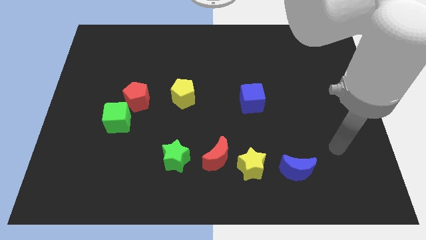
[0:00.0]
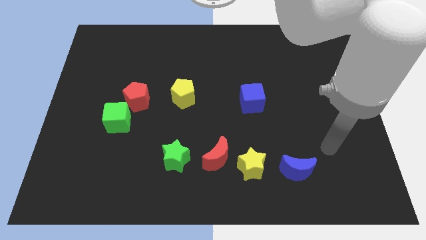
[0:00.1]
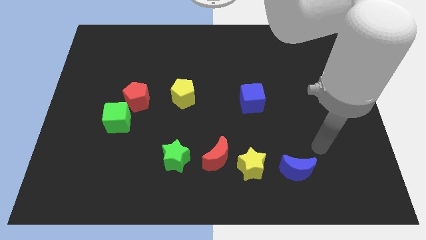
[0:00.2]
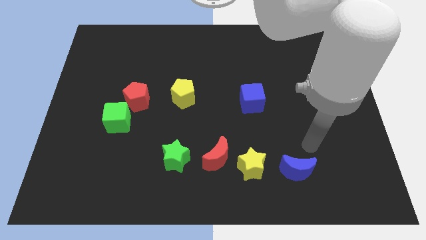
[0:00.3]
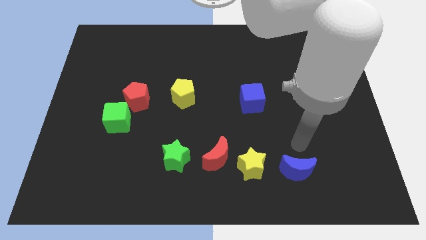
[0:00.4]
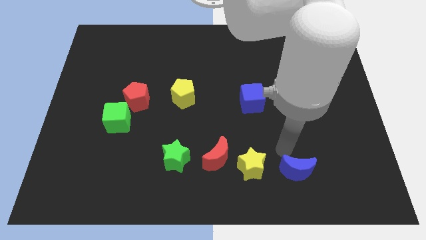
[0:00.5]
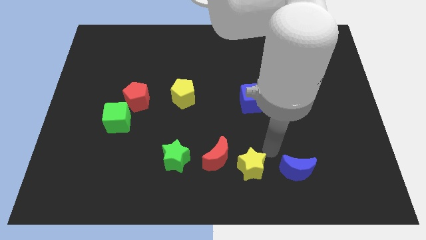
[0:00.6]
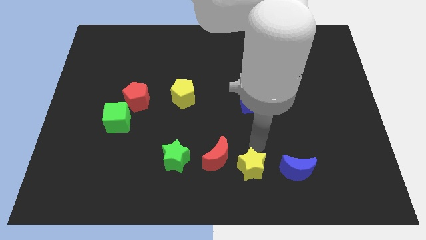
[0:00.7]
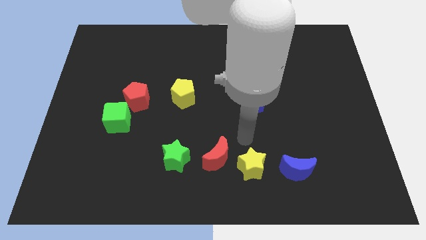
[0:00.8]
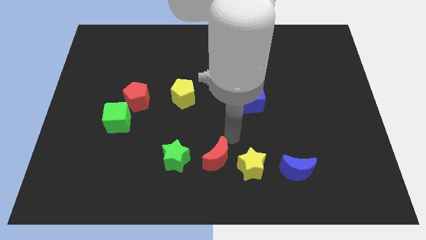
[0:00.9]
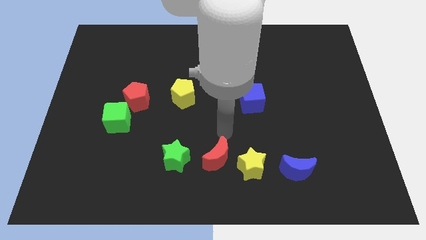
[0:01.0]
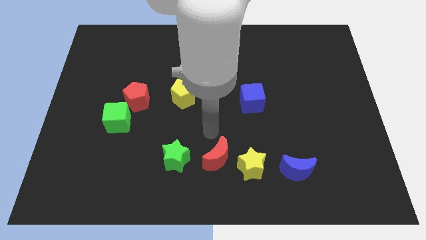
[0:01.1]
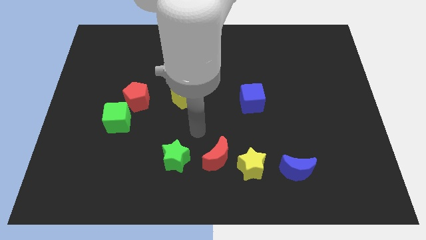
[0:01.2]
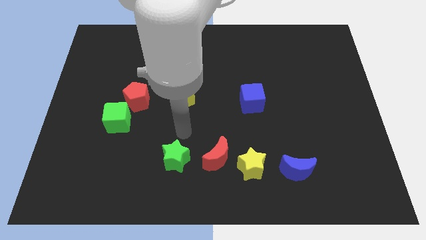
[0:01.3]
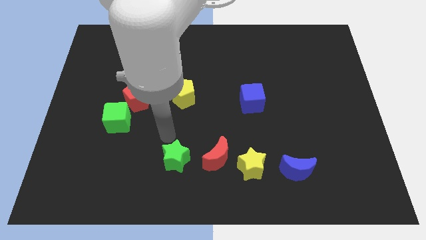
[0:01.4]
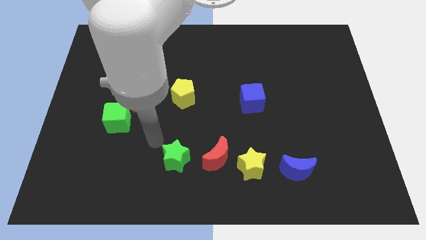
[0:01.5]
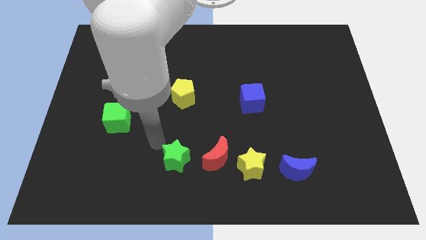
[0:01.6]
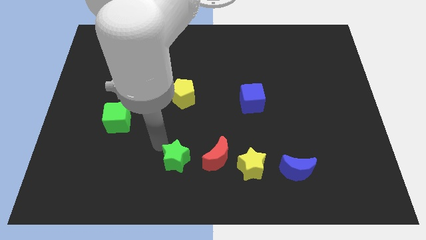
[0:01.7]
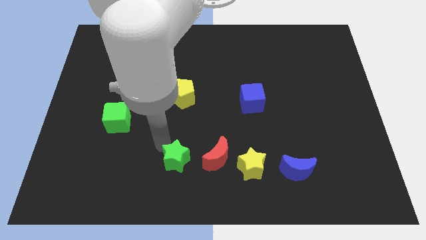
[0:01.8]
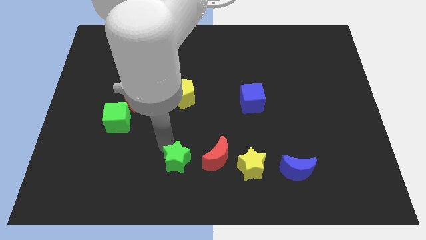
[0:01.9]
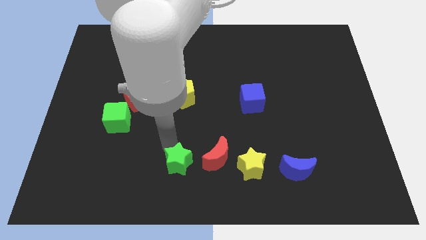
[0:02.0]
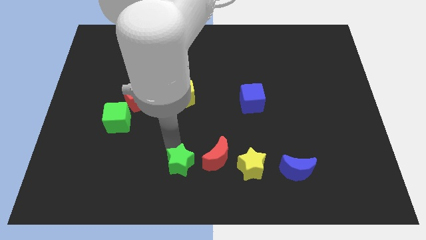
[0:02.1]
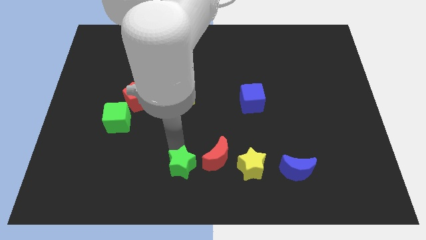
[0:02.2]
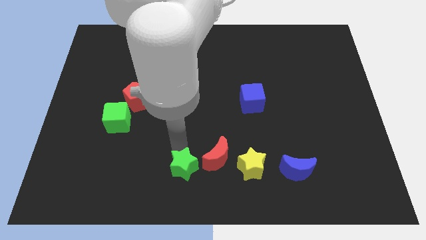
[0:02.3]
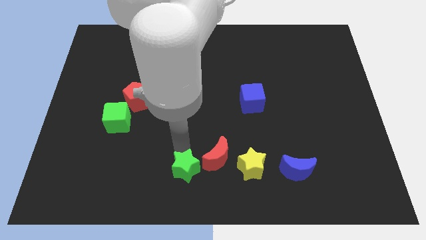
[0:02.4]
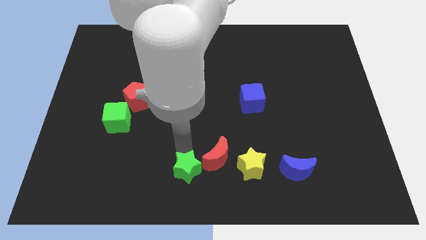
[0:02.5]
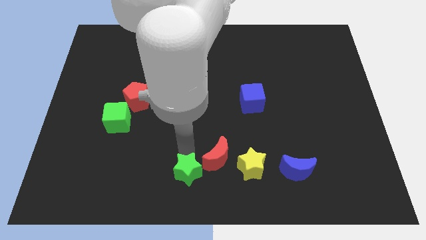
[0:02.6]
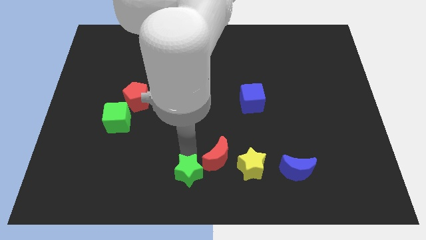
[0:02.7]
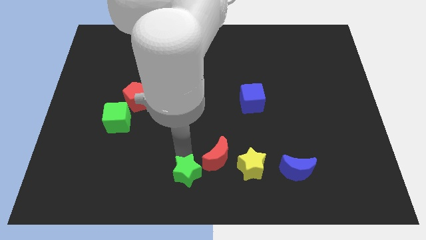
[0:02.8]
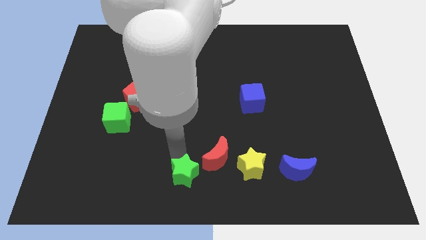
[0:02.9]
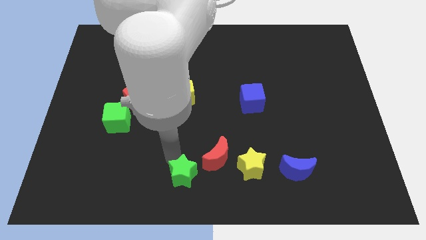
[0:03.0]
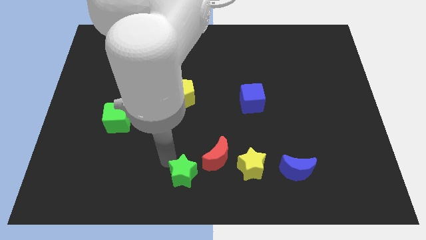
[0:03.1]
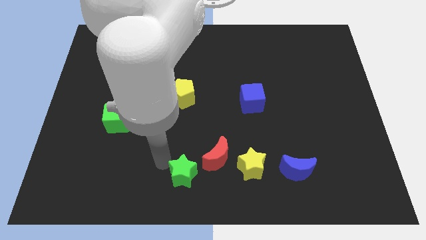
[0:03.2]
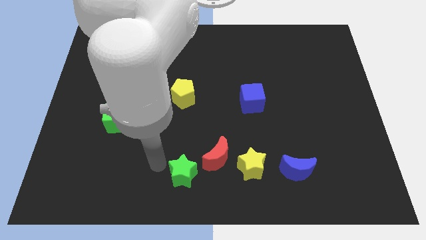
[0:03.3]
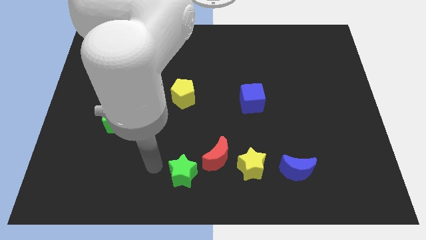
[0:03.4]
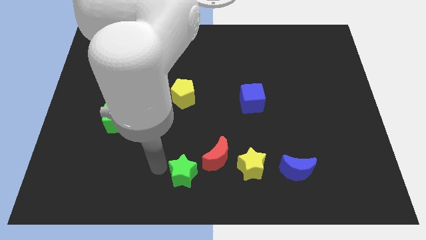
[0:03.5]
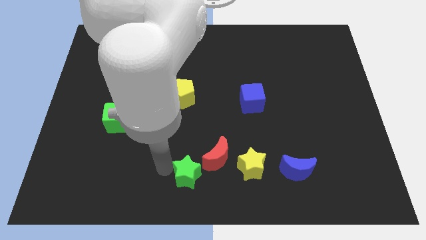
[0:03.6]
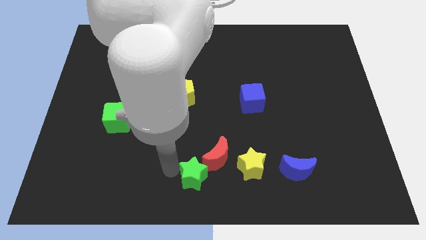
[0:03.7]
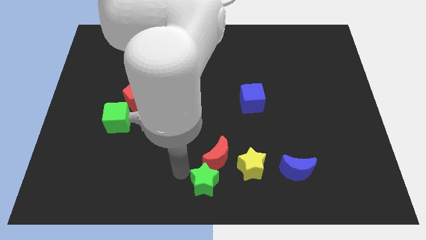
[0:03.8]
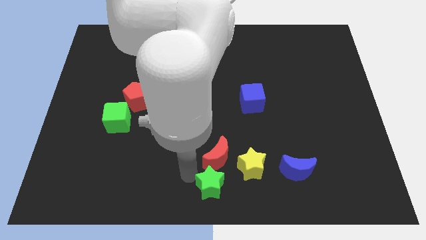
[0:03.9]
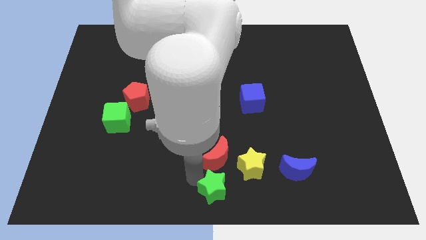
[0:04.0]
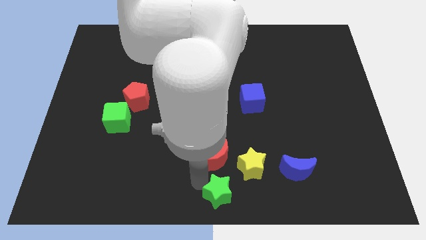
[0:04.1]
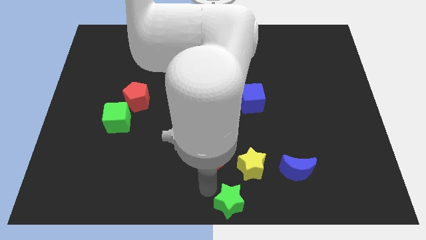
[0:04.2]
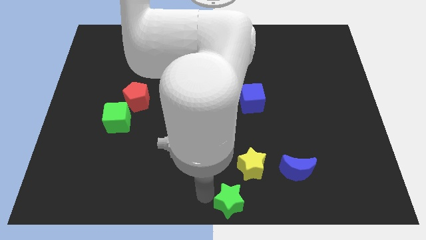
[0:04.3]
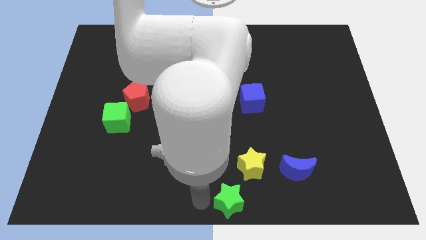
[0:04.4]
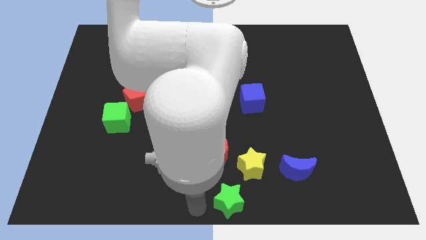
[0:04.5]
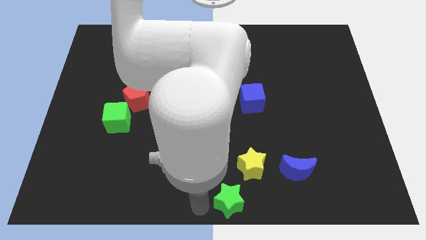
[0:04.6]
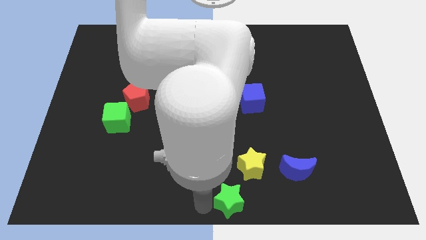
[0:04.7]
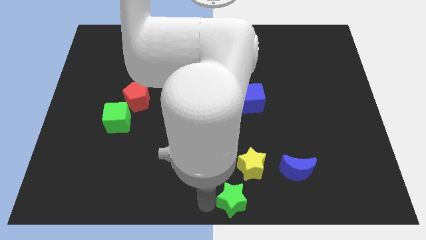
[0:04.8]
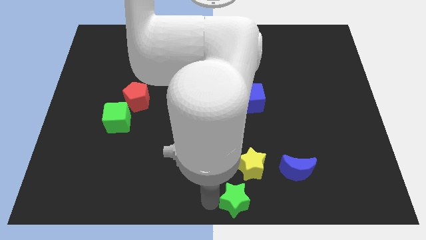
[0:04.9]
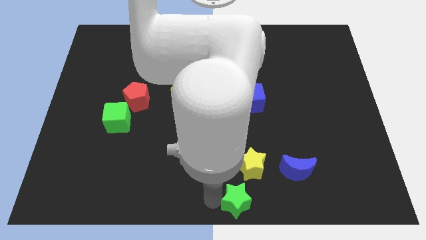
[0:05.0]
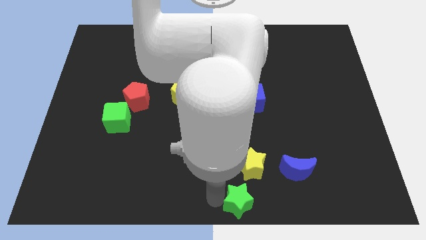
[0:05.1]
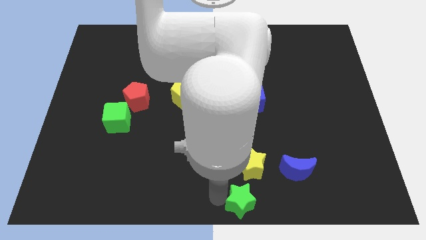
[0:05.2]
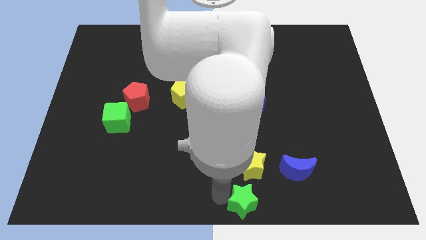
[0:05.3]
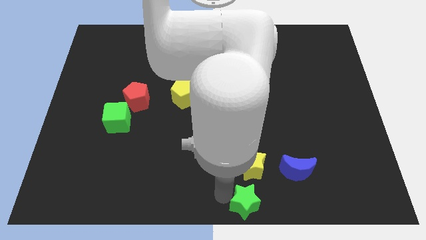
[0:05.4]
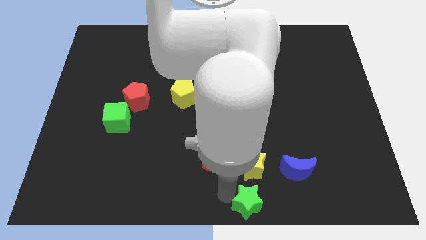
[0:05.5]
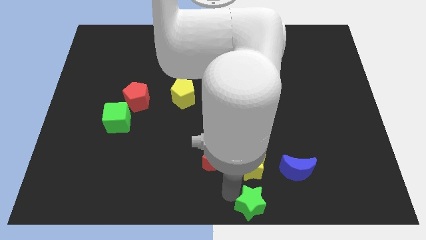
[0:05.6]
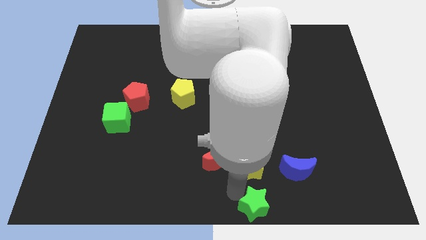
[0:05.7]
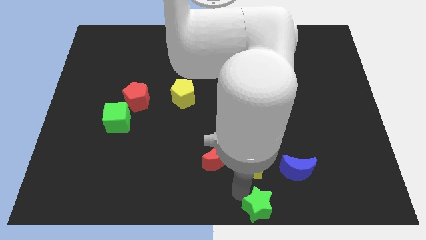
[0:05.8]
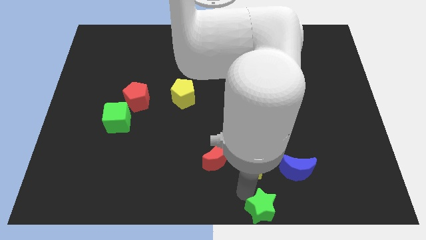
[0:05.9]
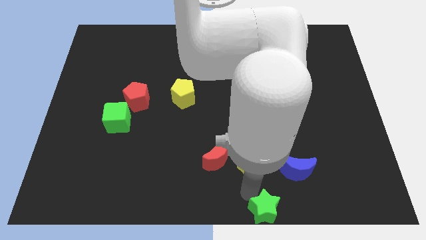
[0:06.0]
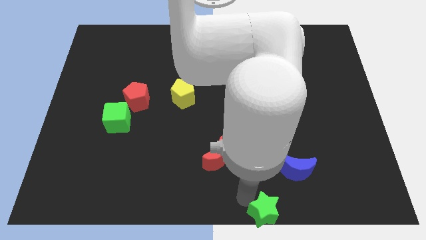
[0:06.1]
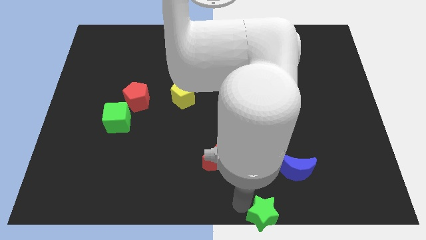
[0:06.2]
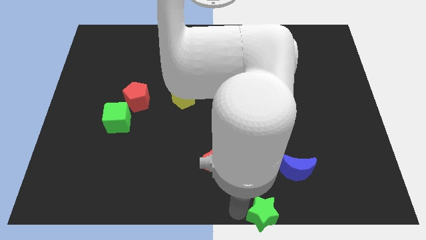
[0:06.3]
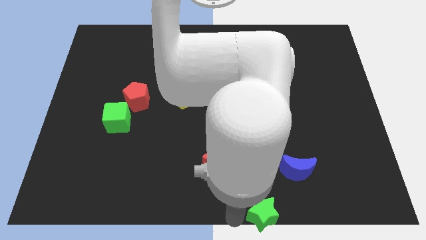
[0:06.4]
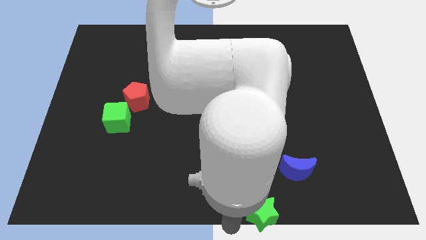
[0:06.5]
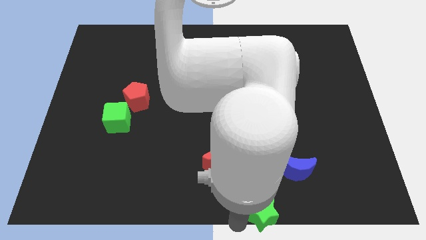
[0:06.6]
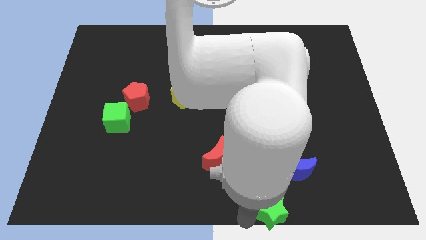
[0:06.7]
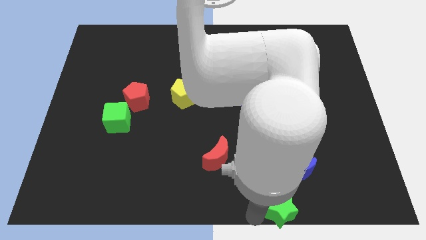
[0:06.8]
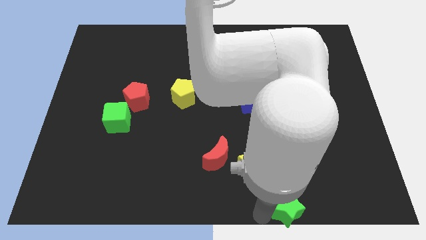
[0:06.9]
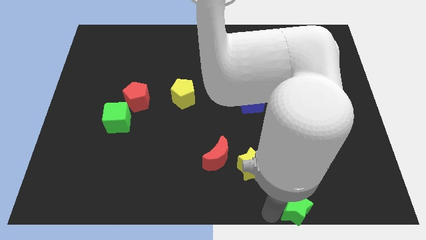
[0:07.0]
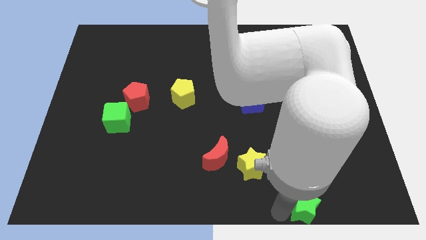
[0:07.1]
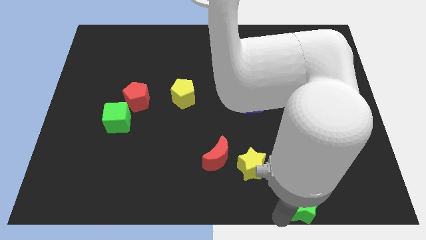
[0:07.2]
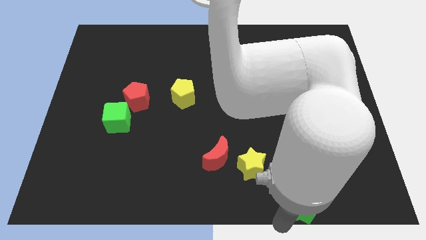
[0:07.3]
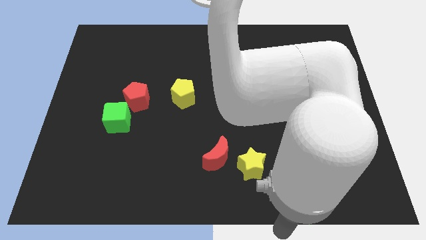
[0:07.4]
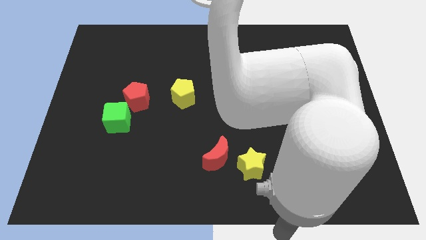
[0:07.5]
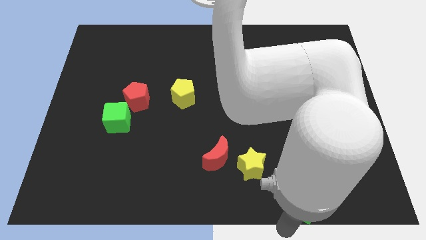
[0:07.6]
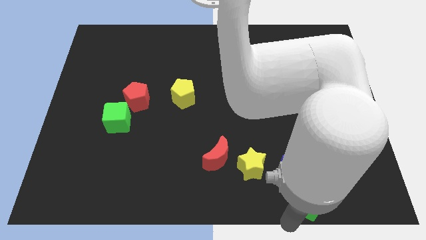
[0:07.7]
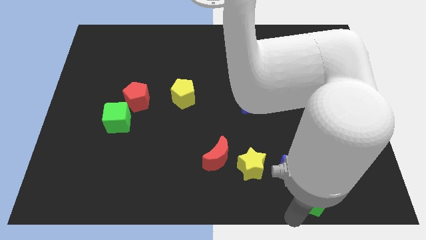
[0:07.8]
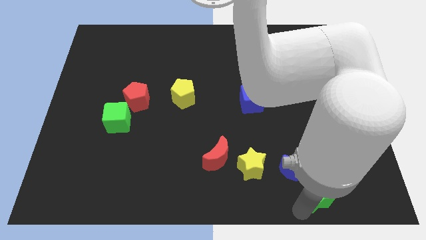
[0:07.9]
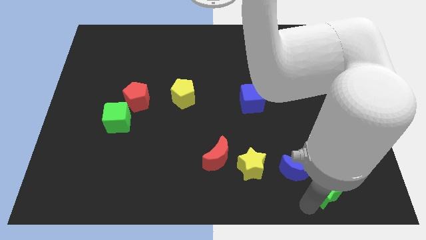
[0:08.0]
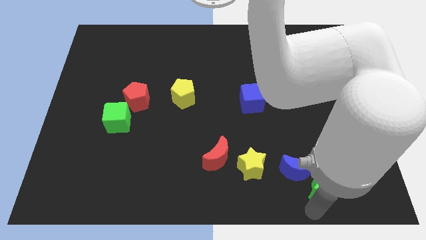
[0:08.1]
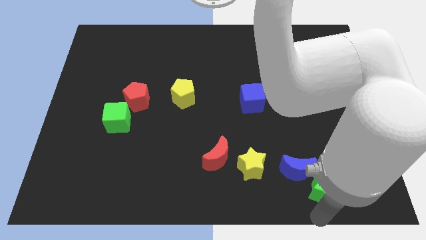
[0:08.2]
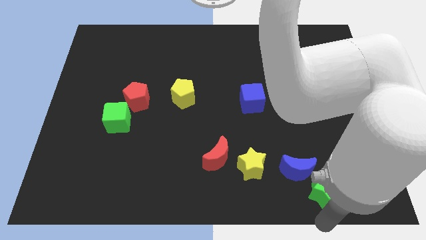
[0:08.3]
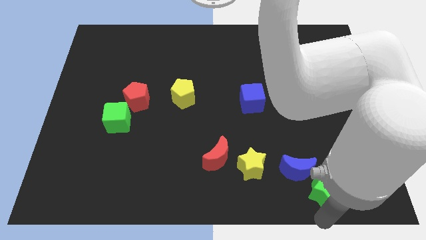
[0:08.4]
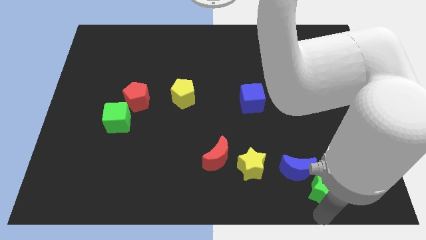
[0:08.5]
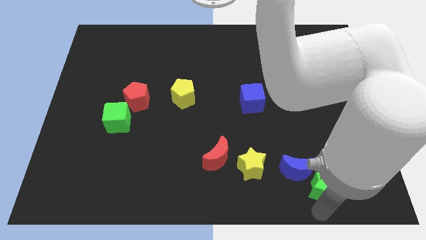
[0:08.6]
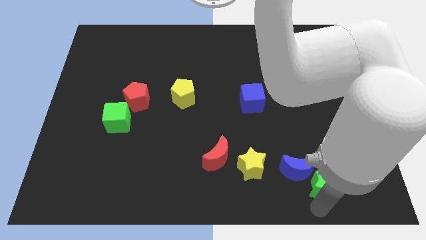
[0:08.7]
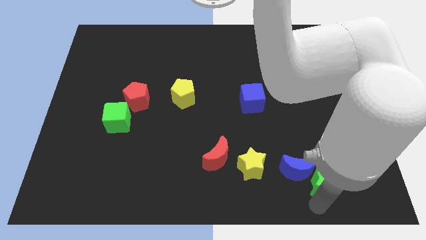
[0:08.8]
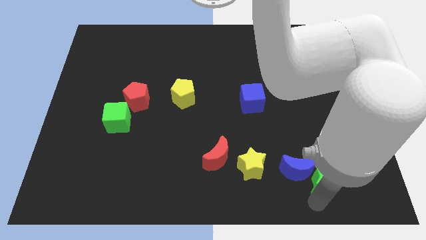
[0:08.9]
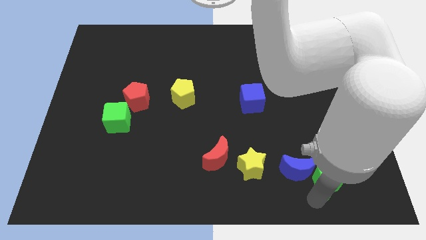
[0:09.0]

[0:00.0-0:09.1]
push the green star to the right of the yellow star
